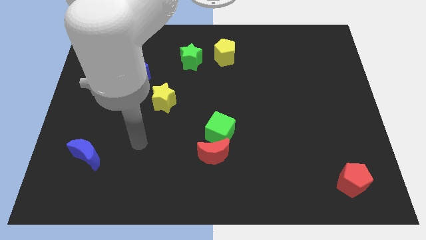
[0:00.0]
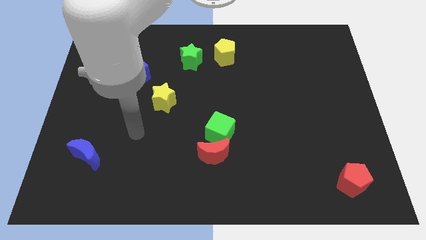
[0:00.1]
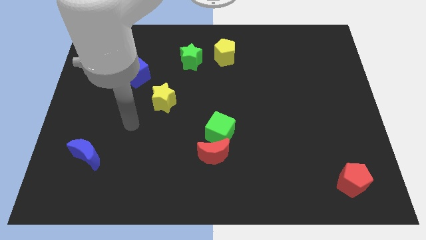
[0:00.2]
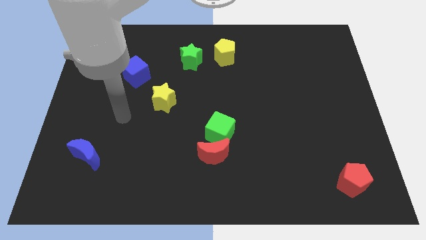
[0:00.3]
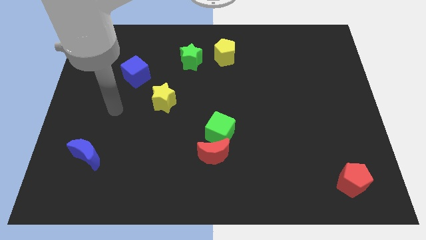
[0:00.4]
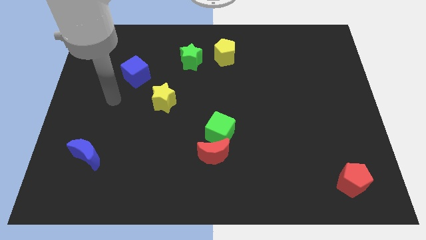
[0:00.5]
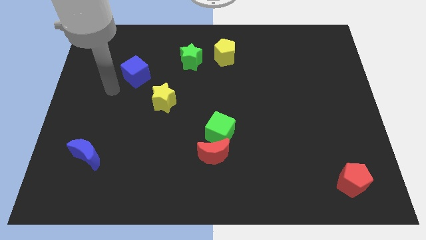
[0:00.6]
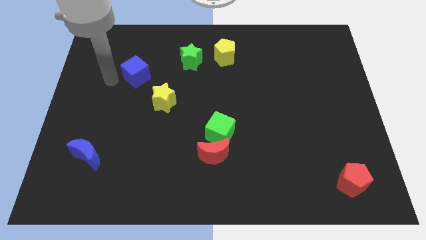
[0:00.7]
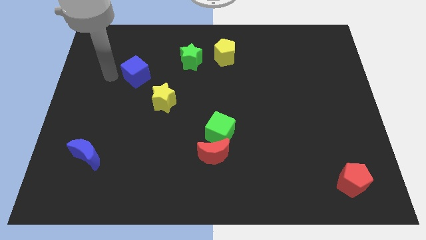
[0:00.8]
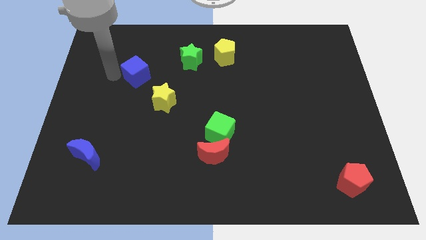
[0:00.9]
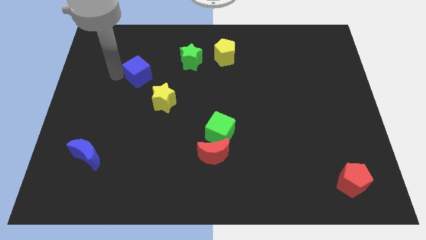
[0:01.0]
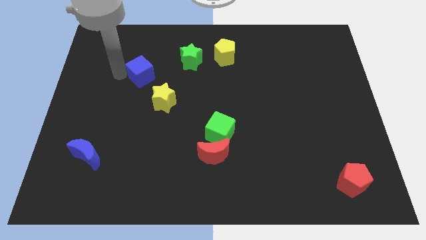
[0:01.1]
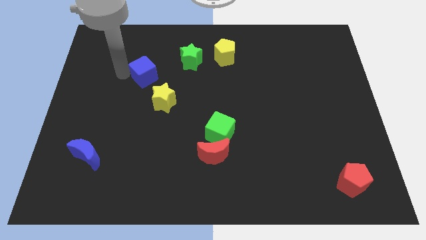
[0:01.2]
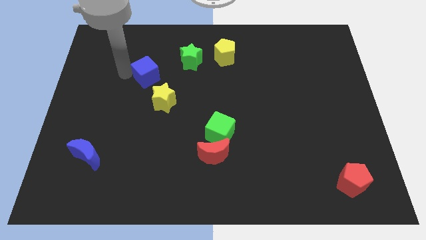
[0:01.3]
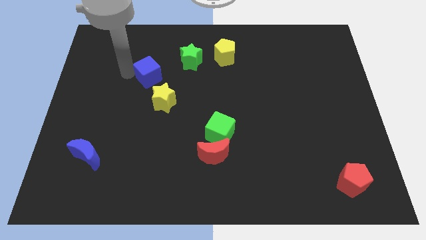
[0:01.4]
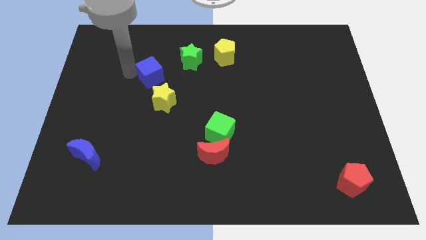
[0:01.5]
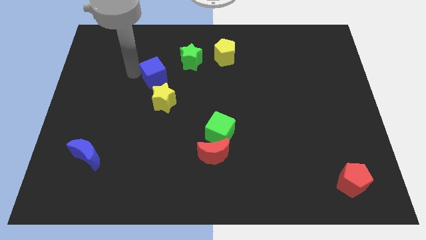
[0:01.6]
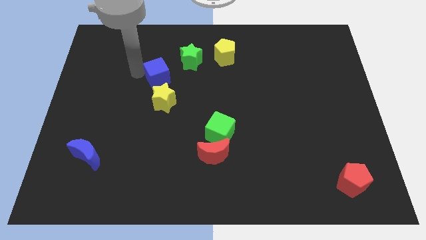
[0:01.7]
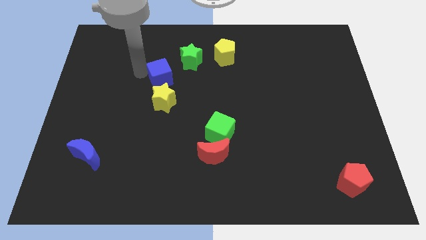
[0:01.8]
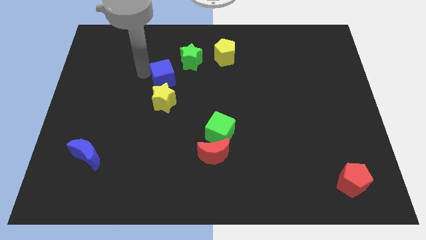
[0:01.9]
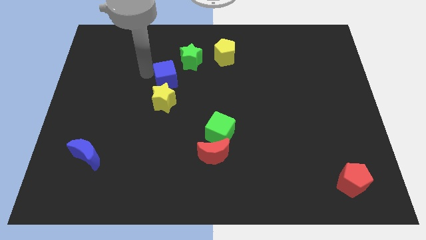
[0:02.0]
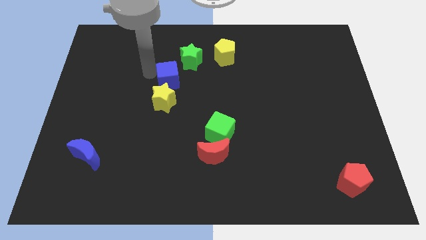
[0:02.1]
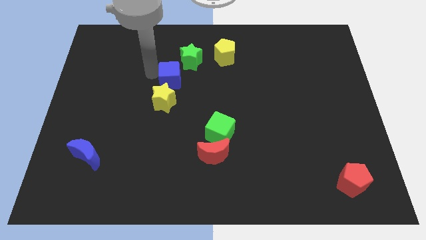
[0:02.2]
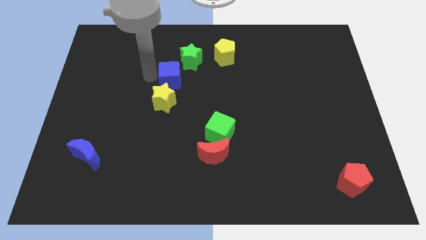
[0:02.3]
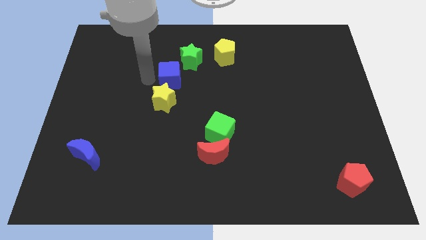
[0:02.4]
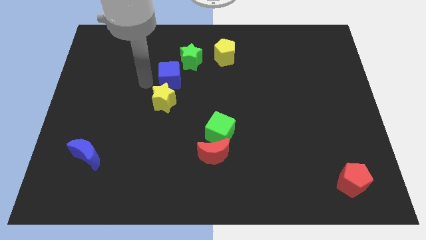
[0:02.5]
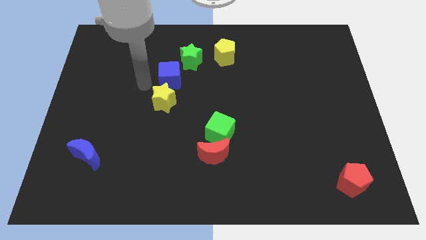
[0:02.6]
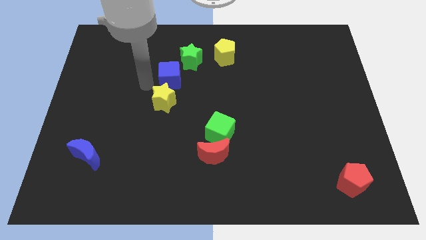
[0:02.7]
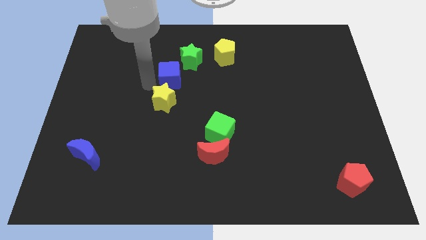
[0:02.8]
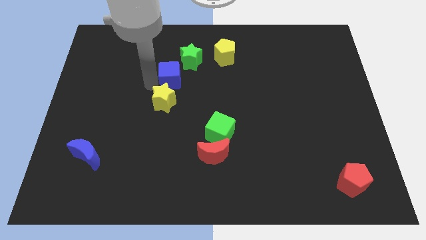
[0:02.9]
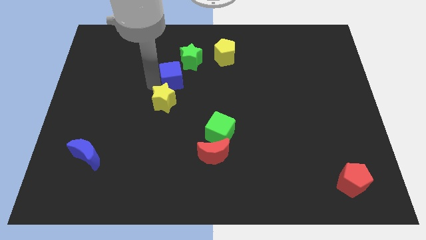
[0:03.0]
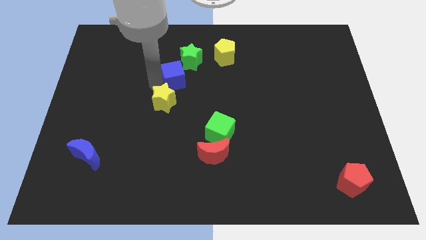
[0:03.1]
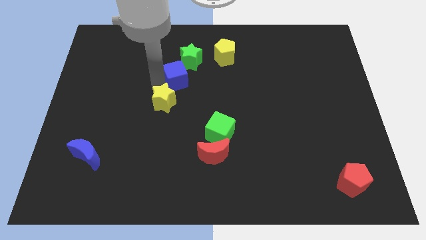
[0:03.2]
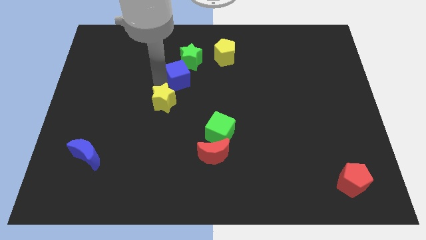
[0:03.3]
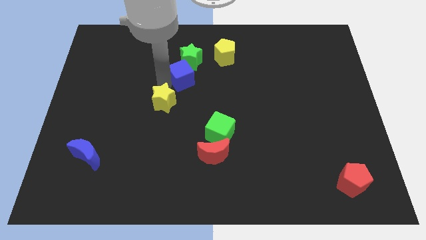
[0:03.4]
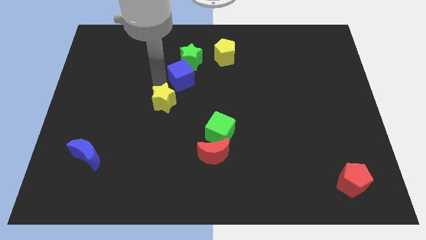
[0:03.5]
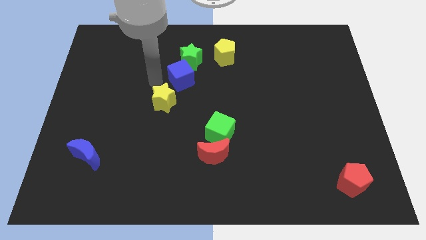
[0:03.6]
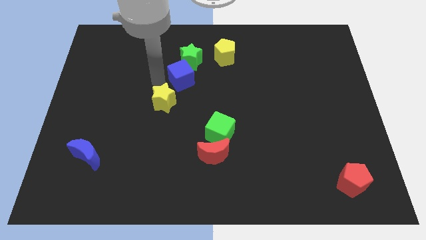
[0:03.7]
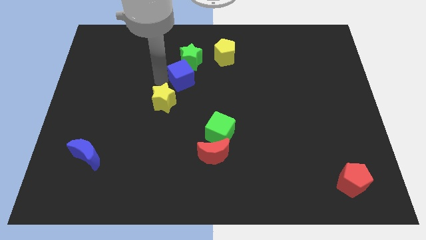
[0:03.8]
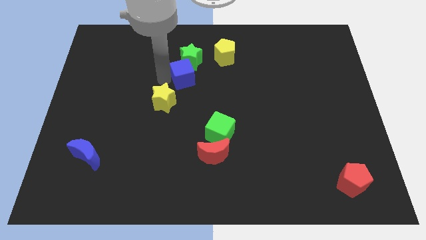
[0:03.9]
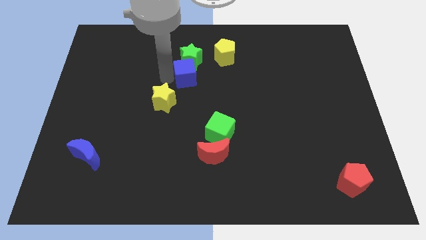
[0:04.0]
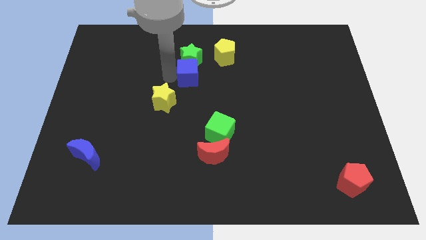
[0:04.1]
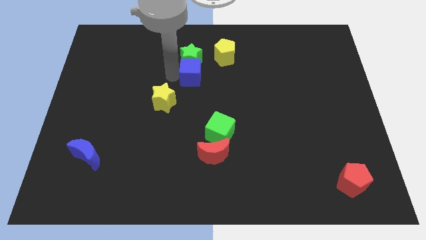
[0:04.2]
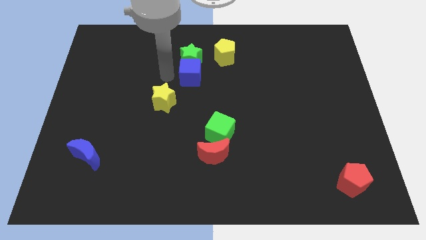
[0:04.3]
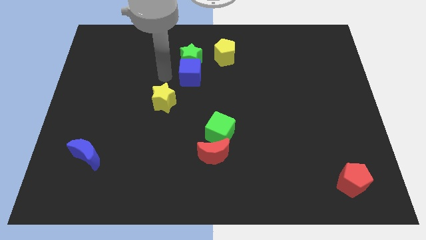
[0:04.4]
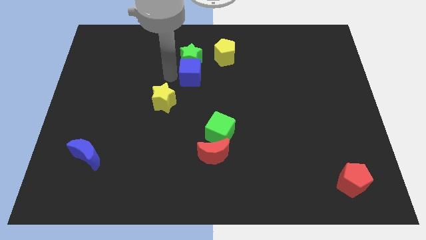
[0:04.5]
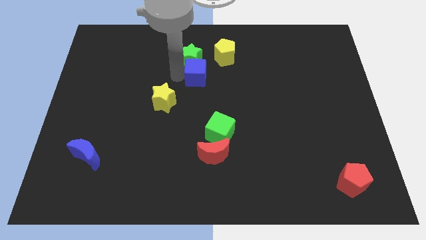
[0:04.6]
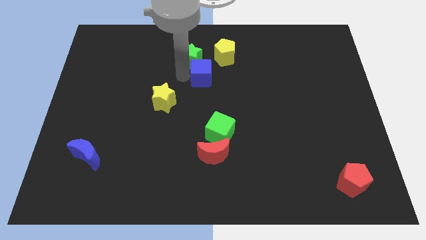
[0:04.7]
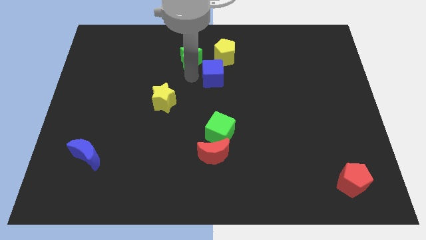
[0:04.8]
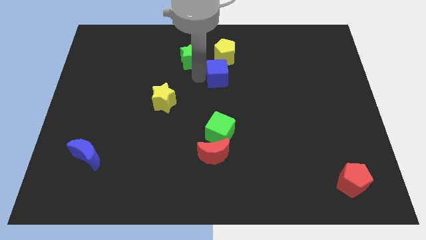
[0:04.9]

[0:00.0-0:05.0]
move the blue cube to the right

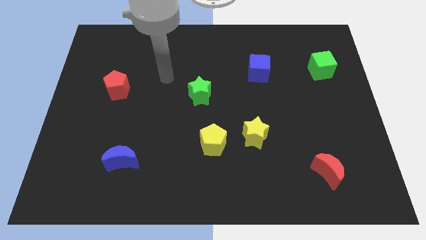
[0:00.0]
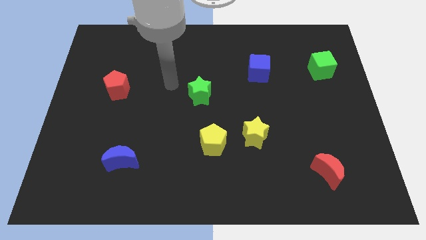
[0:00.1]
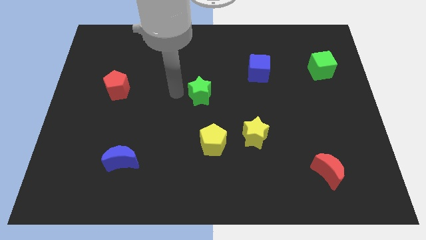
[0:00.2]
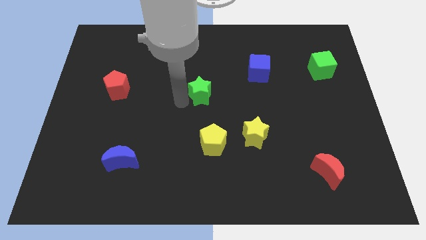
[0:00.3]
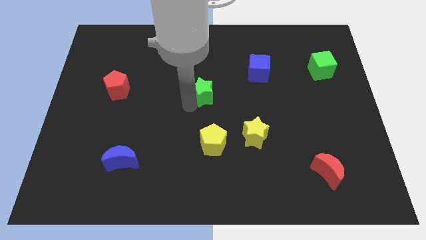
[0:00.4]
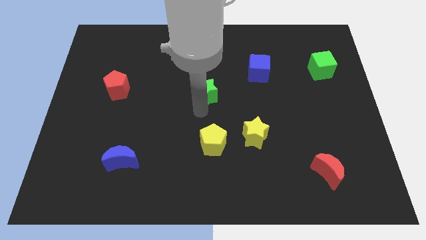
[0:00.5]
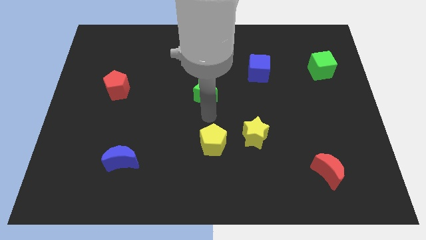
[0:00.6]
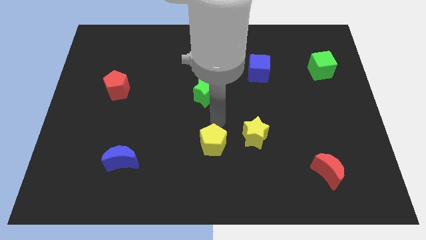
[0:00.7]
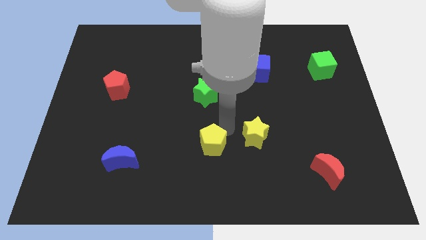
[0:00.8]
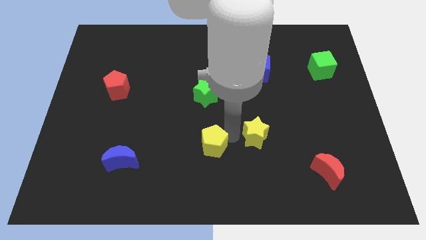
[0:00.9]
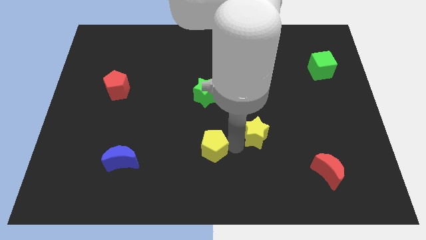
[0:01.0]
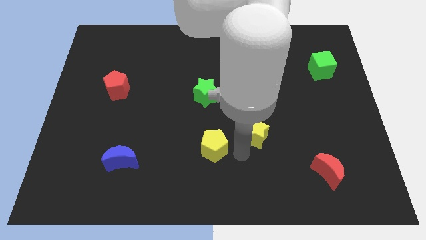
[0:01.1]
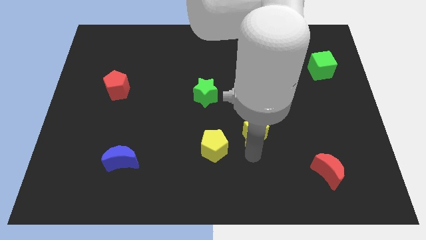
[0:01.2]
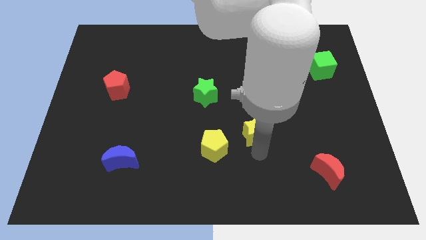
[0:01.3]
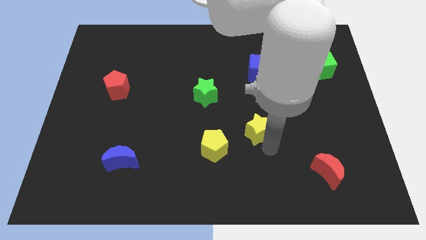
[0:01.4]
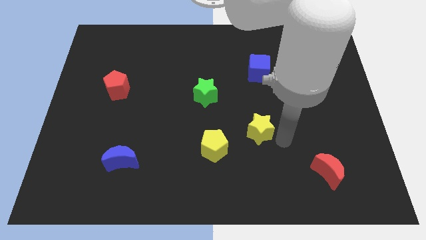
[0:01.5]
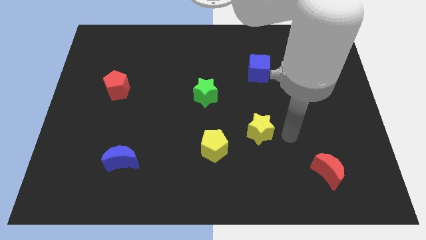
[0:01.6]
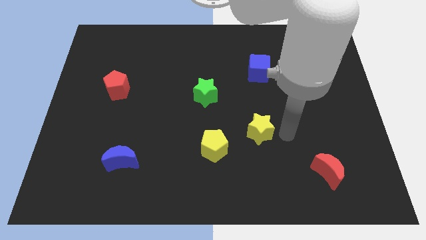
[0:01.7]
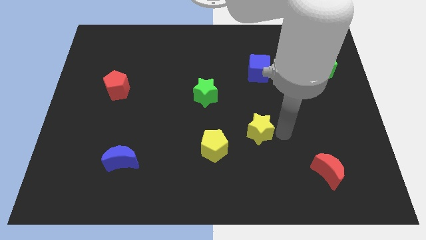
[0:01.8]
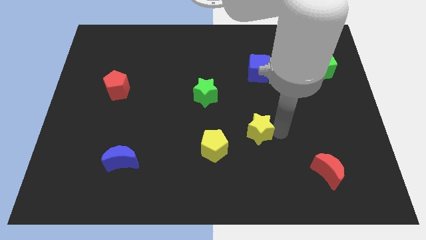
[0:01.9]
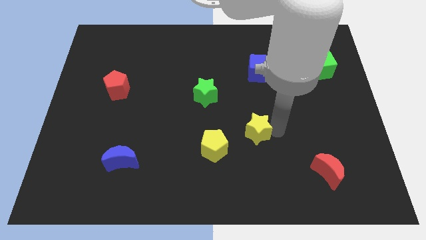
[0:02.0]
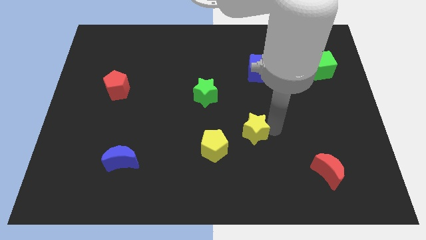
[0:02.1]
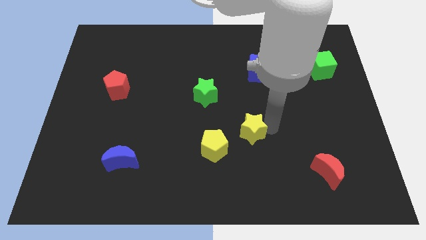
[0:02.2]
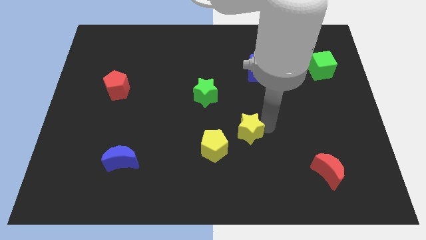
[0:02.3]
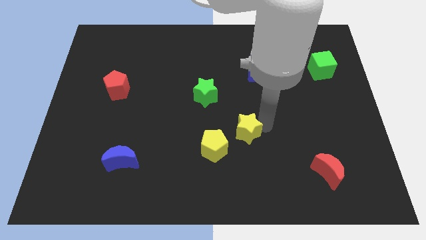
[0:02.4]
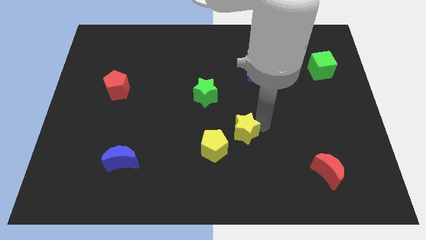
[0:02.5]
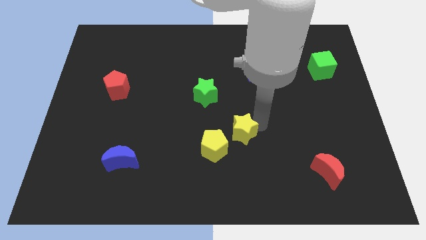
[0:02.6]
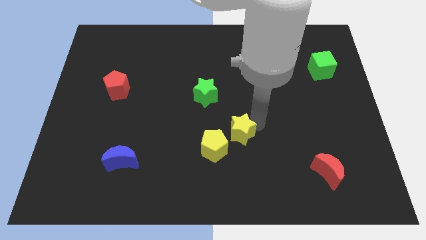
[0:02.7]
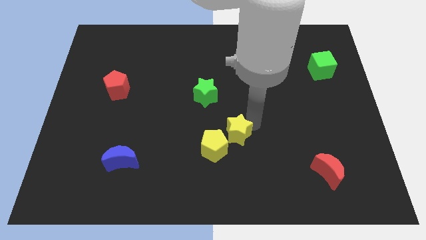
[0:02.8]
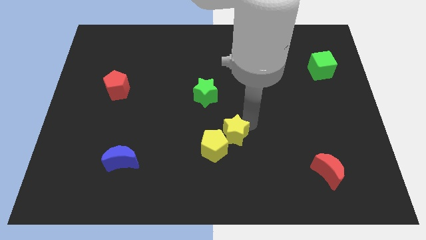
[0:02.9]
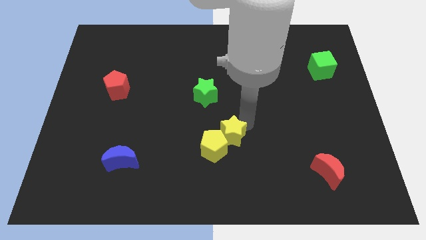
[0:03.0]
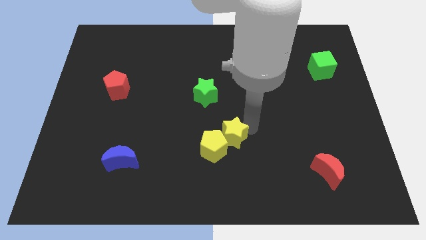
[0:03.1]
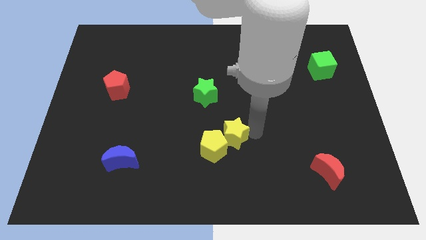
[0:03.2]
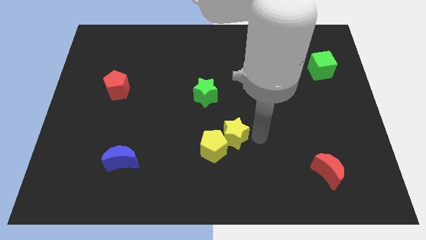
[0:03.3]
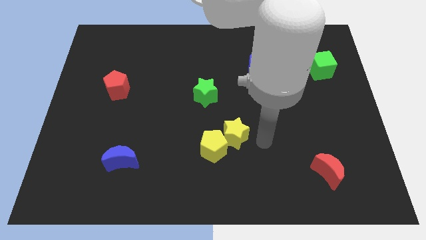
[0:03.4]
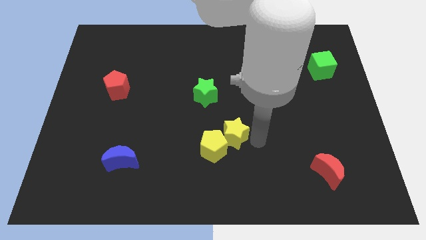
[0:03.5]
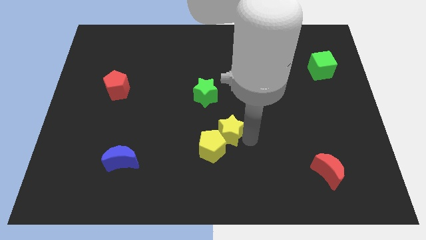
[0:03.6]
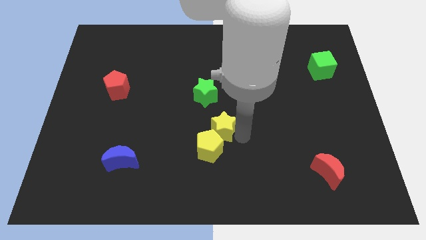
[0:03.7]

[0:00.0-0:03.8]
push the yellow star somewhat left
